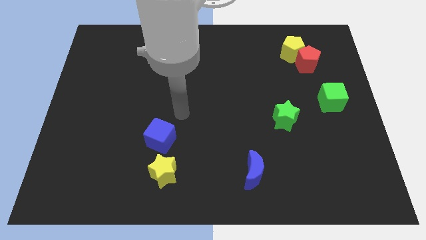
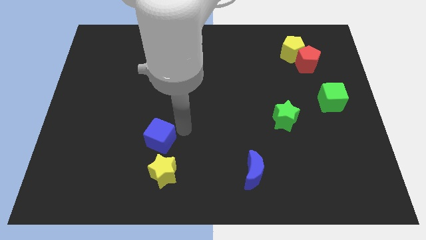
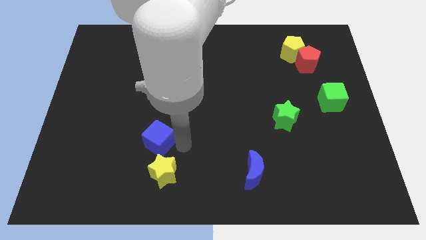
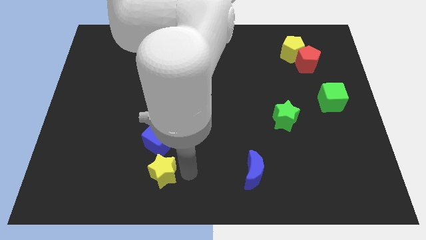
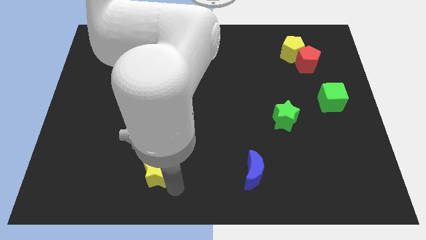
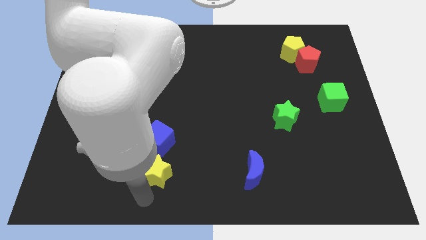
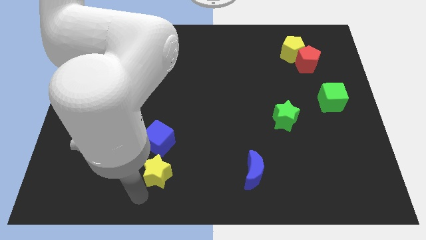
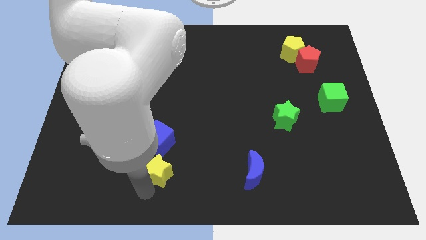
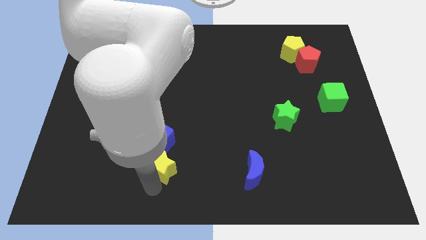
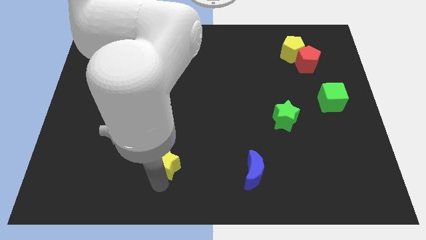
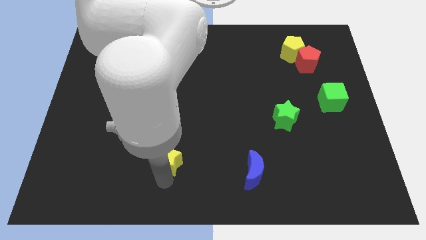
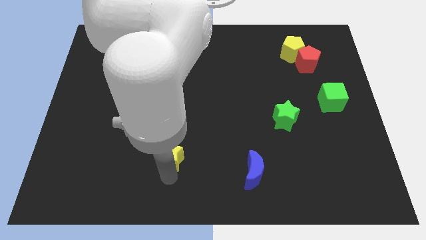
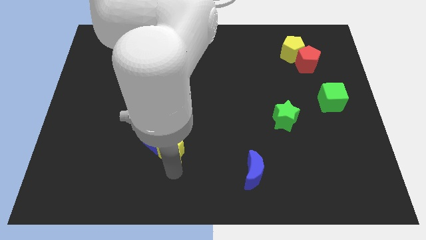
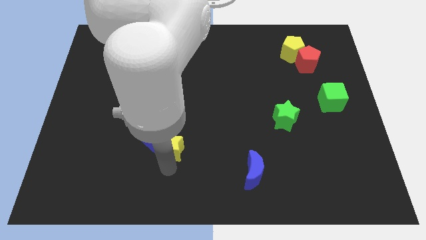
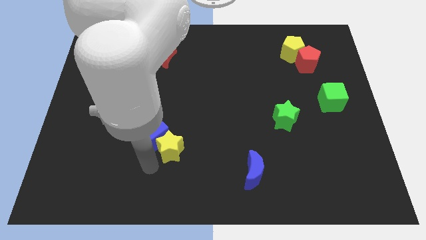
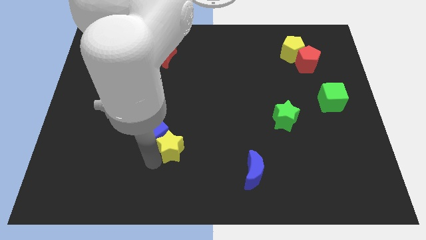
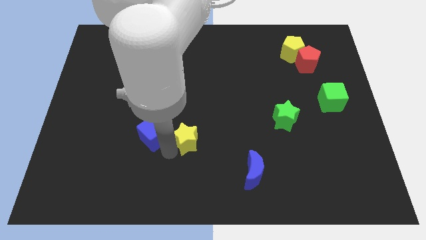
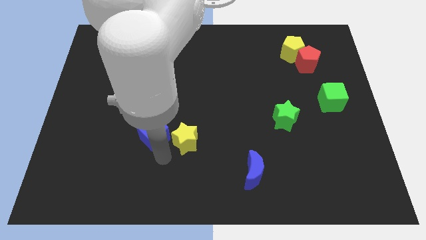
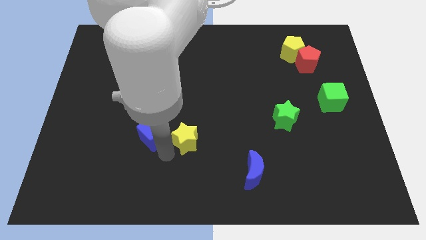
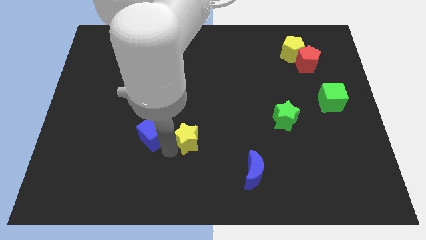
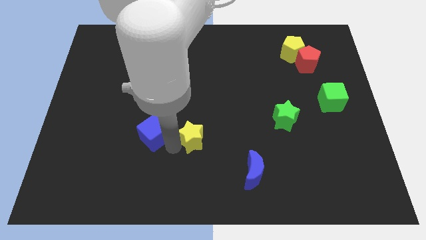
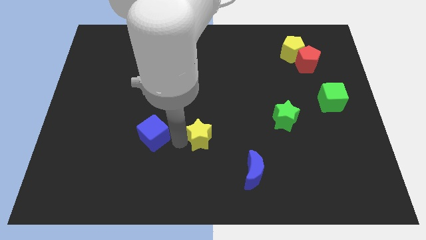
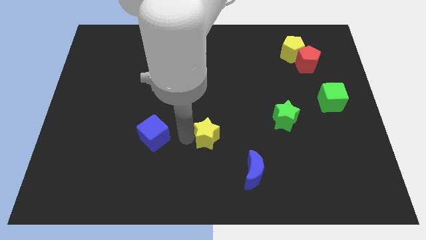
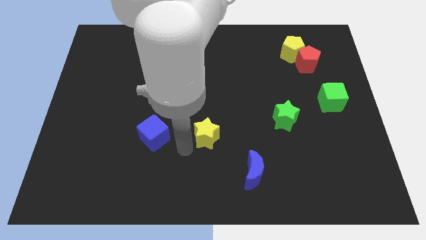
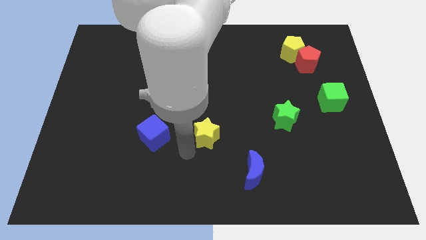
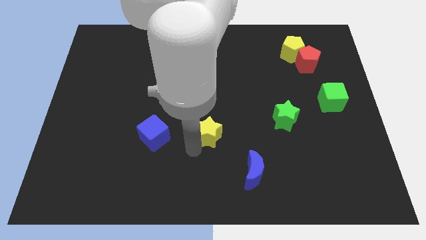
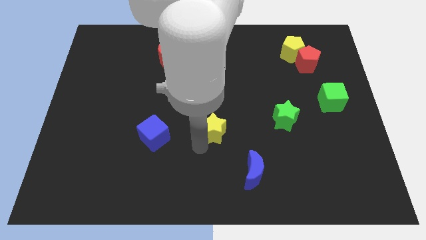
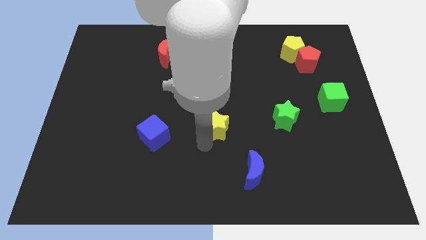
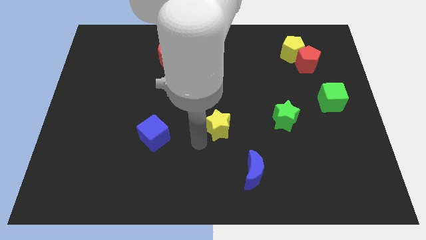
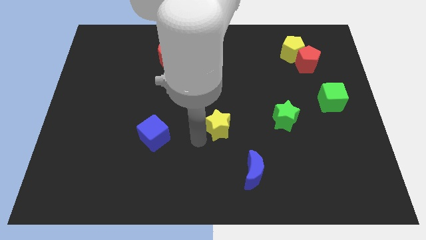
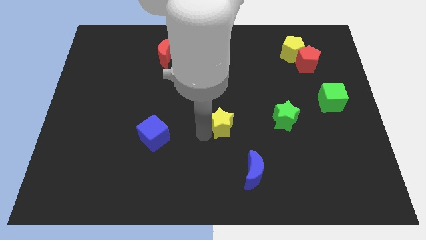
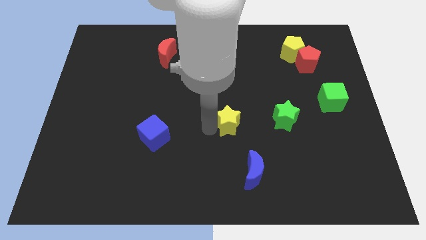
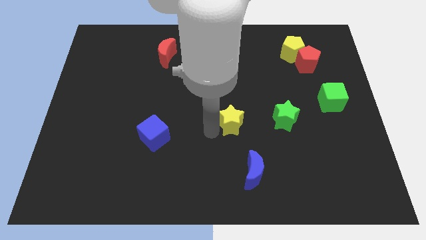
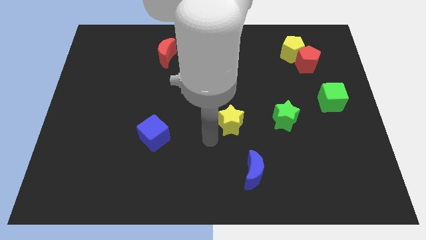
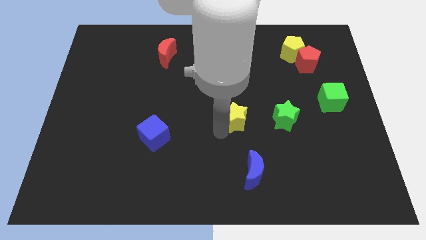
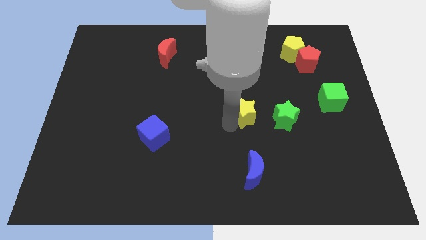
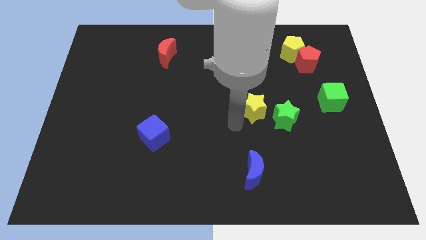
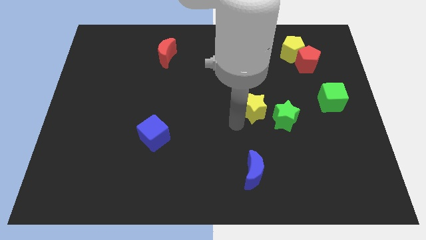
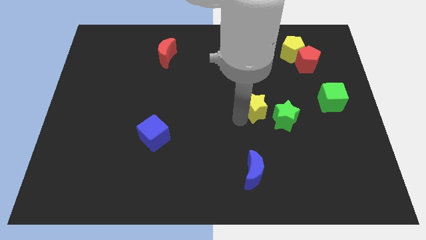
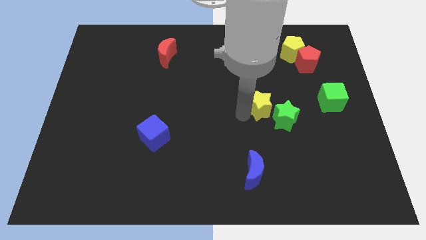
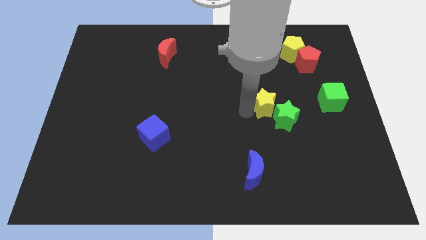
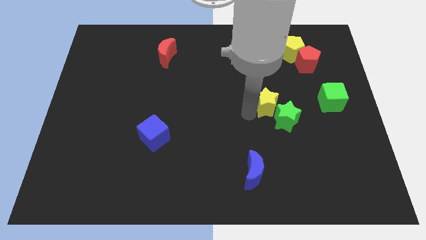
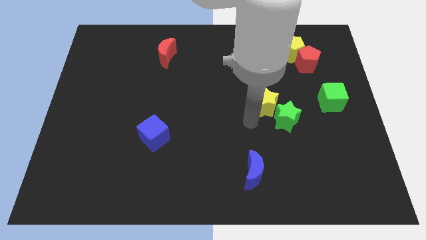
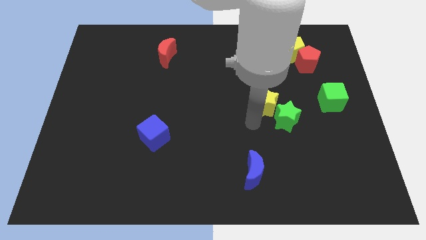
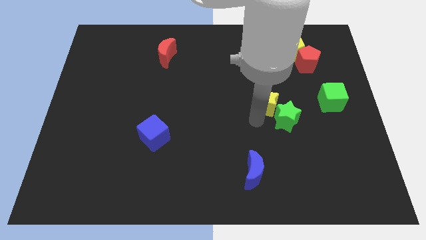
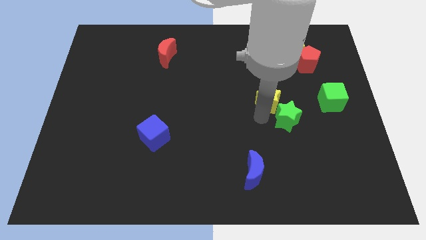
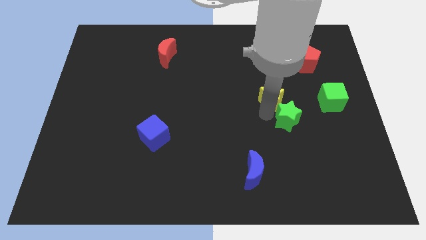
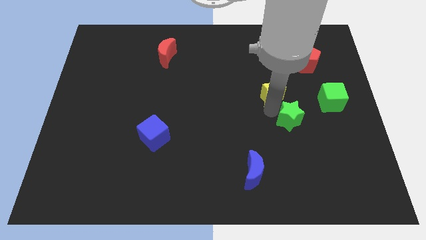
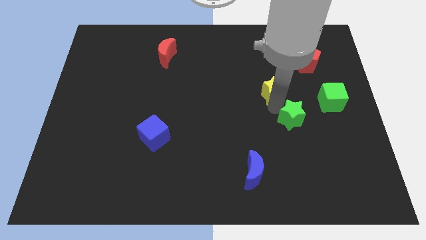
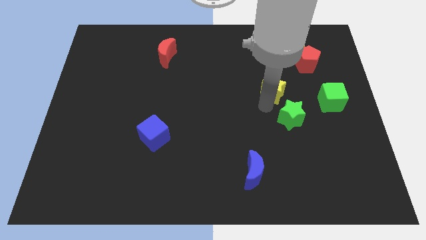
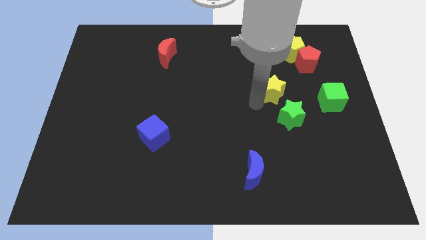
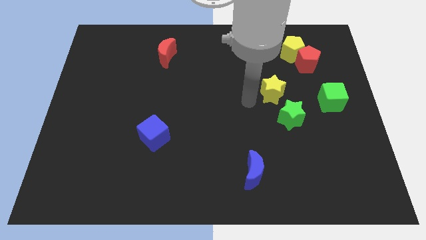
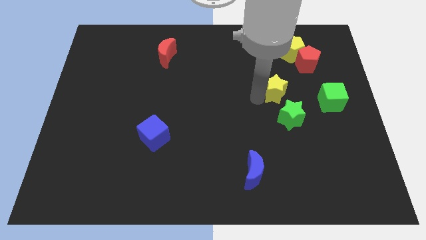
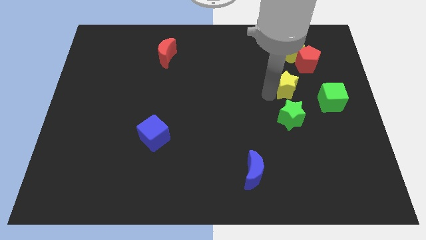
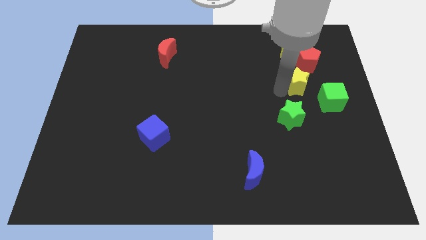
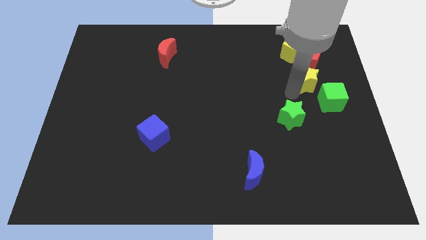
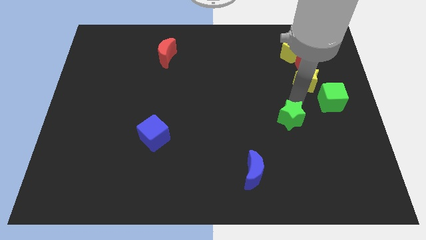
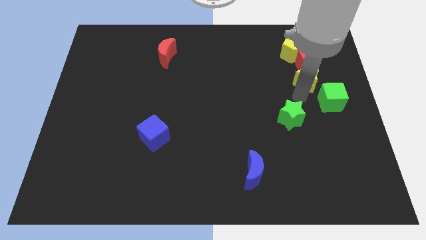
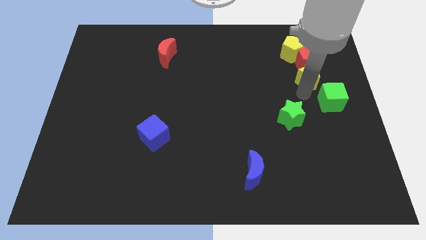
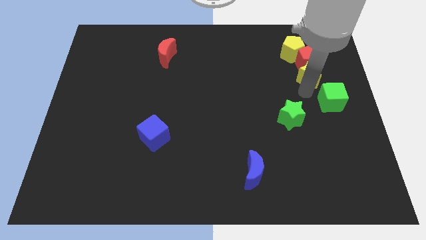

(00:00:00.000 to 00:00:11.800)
move the yellow star to the bottom right side of the yellow pentagon

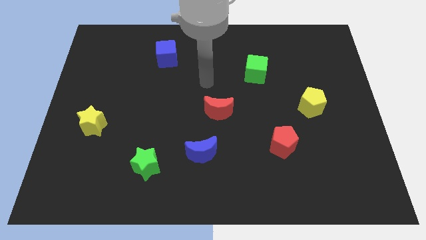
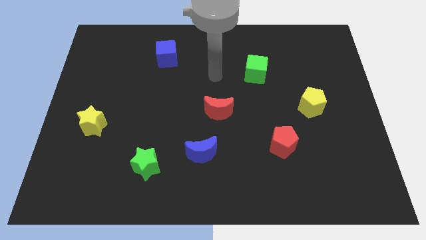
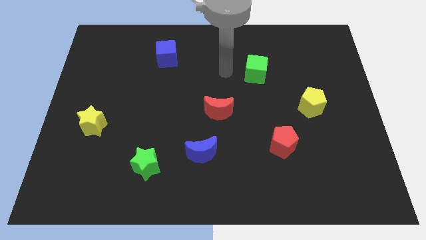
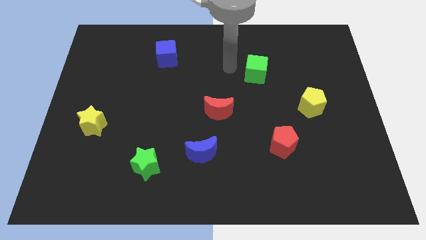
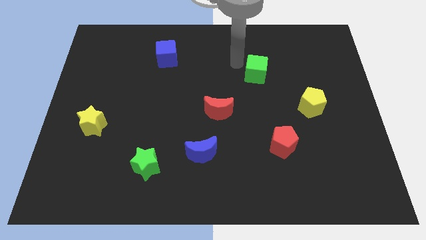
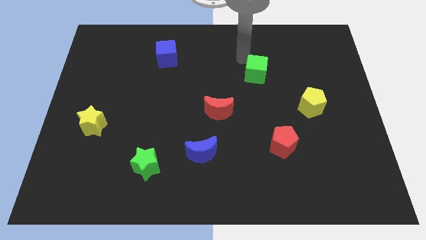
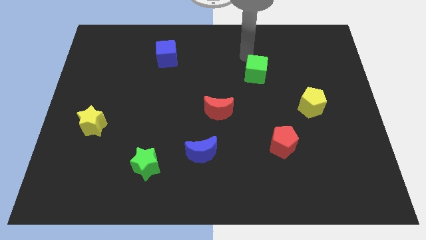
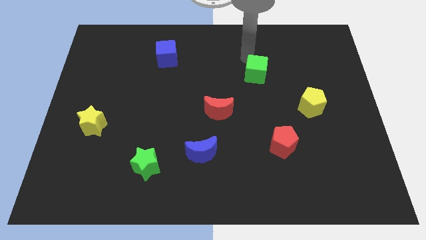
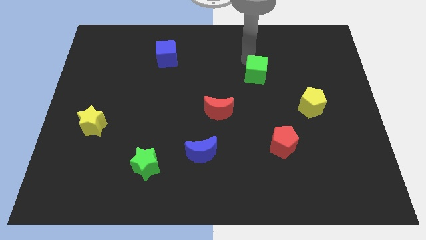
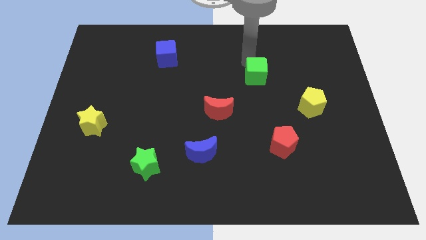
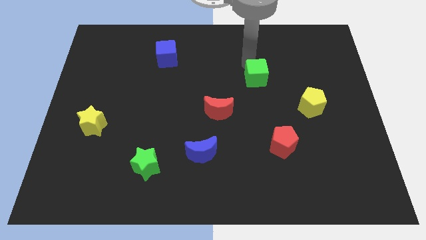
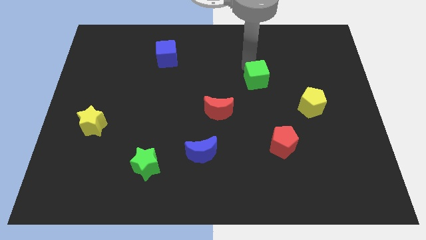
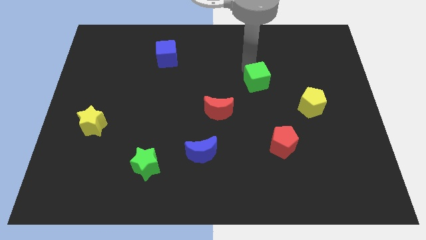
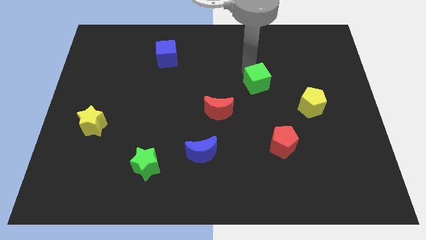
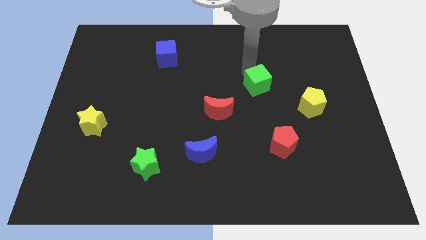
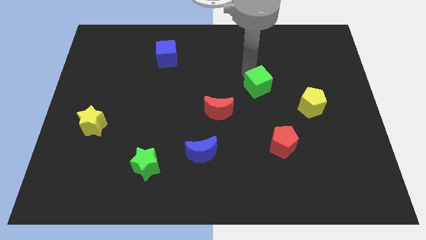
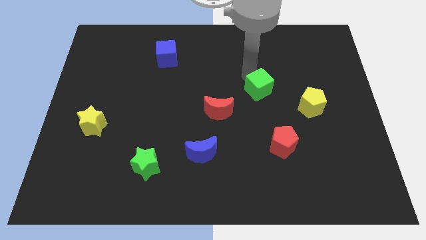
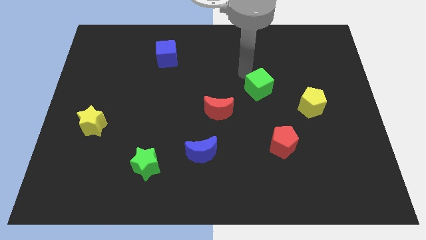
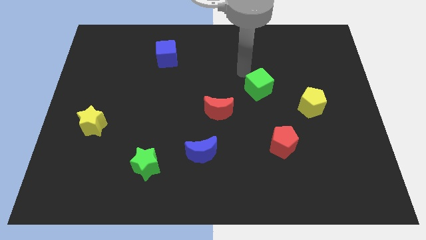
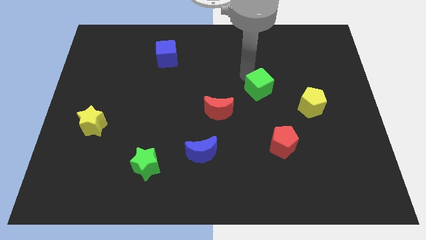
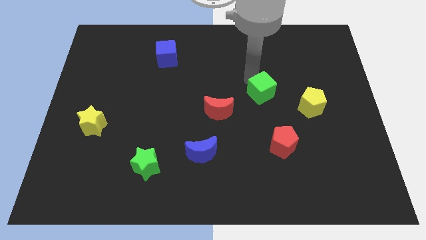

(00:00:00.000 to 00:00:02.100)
move the green cube to the top side of the red pentagon
